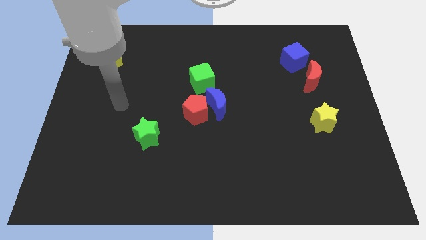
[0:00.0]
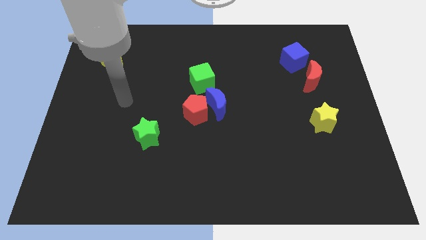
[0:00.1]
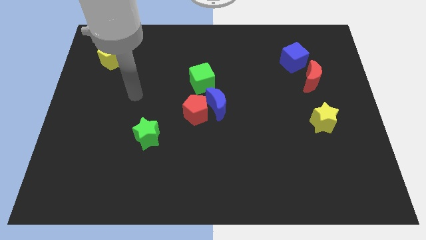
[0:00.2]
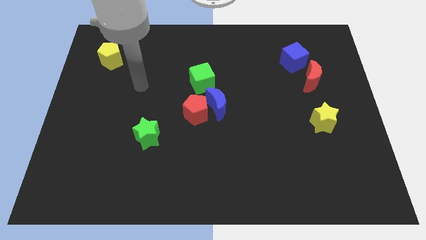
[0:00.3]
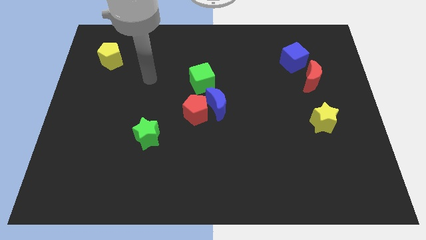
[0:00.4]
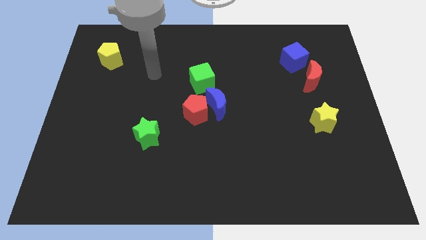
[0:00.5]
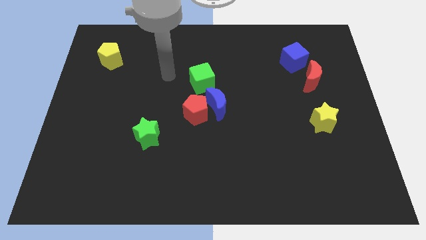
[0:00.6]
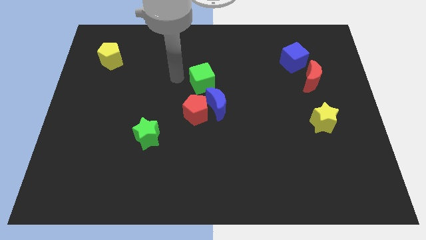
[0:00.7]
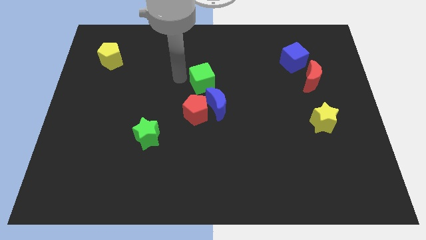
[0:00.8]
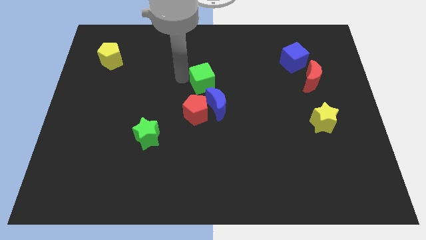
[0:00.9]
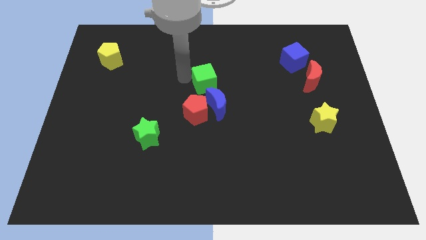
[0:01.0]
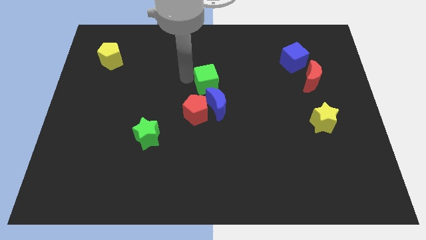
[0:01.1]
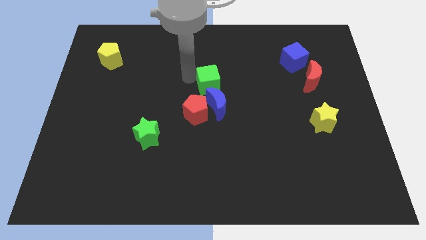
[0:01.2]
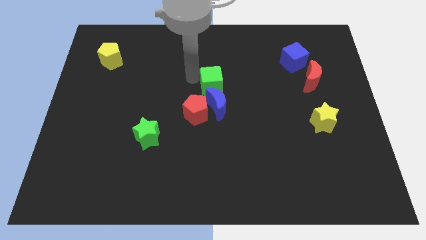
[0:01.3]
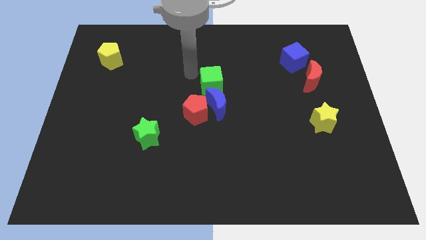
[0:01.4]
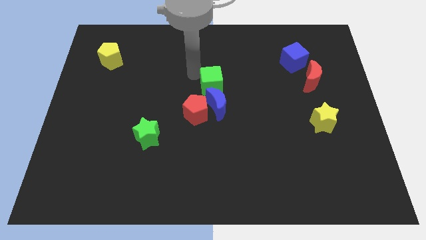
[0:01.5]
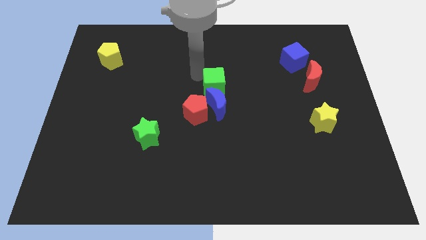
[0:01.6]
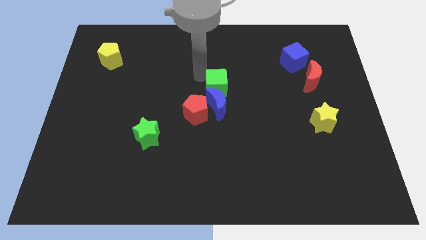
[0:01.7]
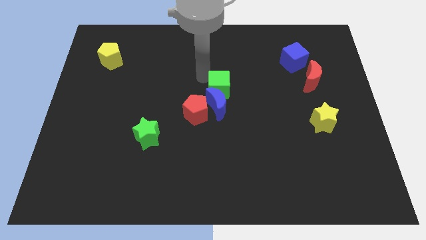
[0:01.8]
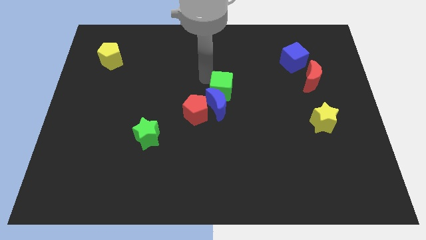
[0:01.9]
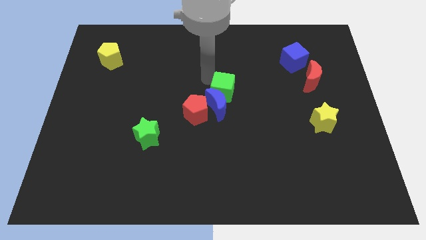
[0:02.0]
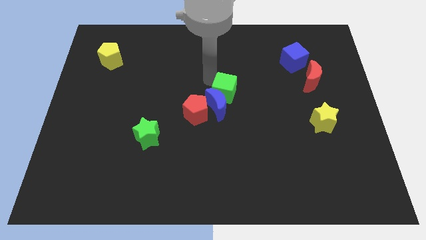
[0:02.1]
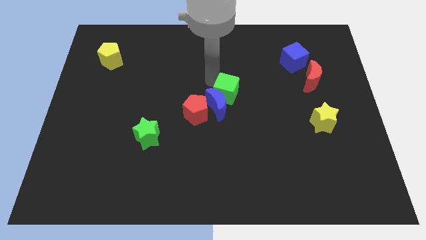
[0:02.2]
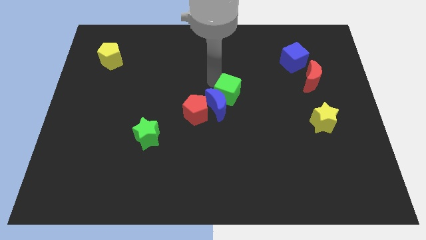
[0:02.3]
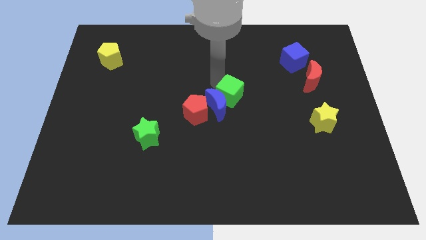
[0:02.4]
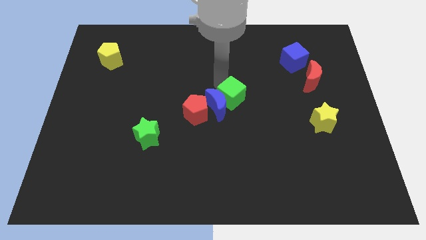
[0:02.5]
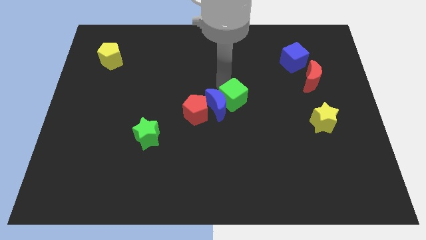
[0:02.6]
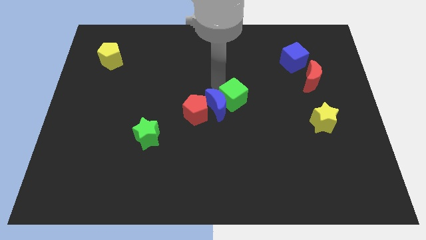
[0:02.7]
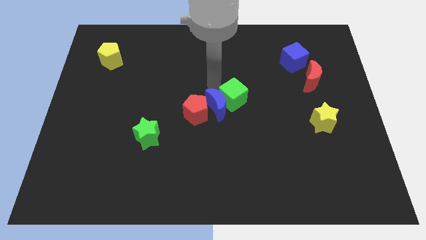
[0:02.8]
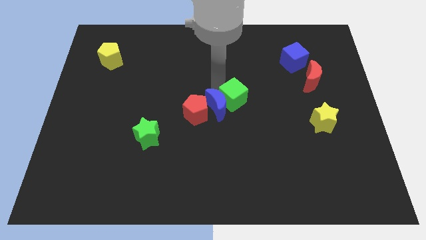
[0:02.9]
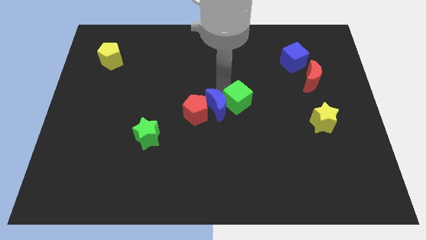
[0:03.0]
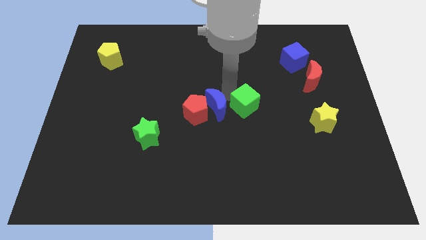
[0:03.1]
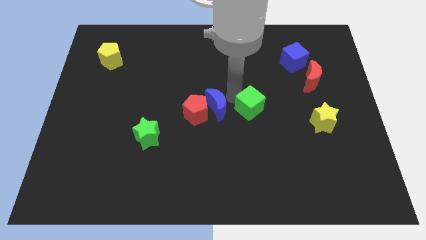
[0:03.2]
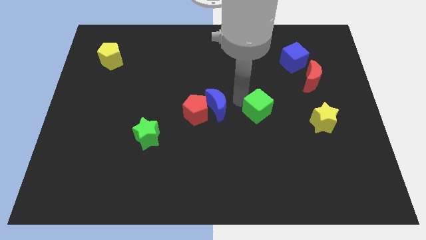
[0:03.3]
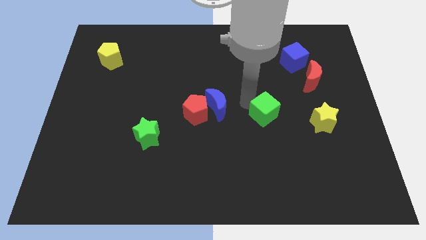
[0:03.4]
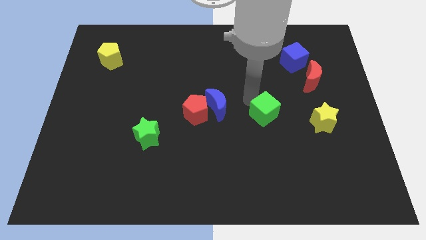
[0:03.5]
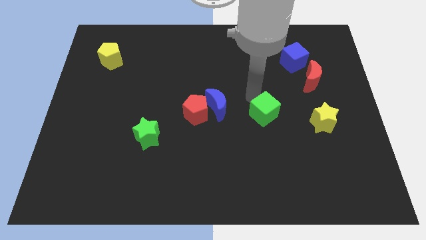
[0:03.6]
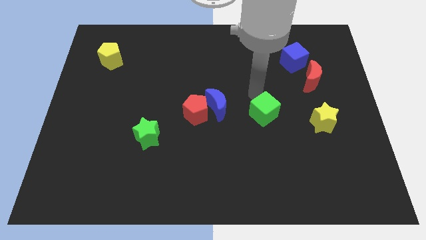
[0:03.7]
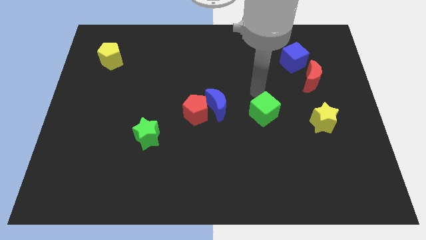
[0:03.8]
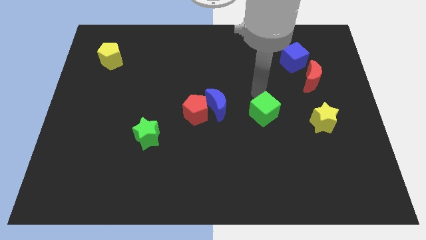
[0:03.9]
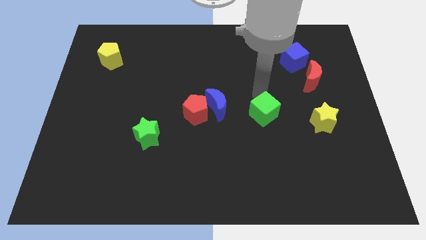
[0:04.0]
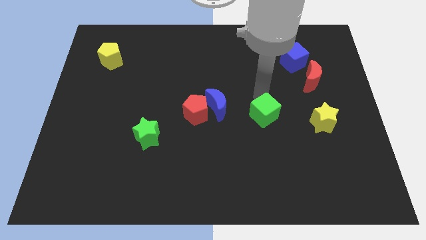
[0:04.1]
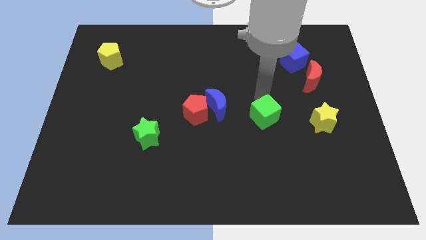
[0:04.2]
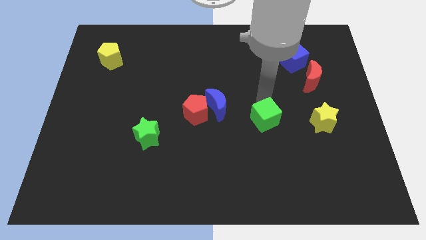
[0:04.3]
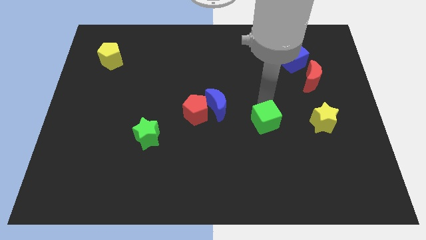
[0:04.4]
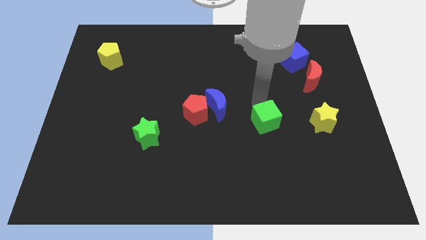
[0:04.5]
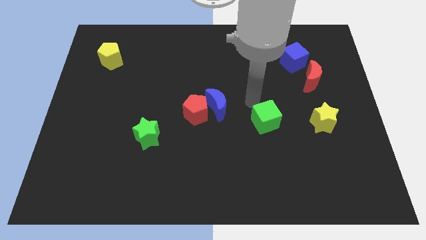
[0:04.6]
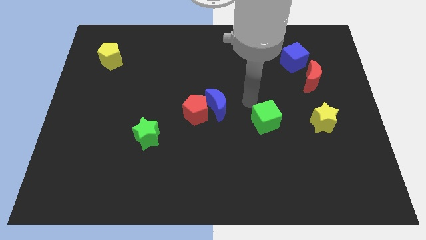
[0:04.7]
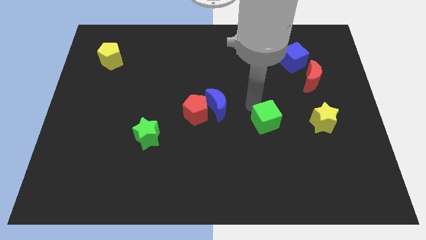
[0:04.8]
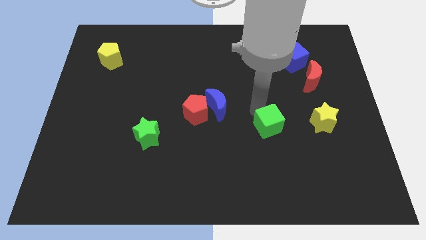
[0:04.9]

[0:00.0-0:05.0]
slide the green cube diagonally downwards and right

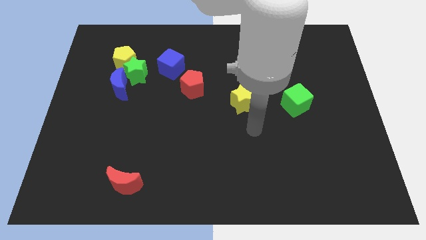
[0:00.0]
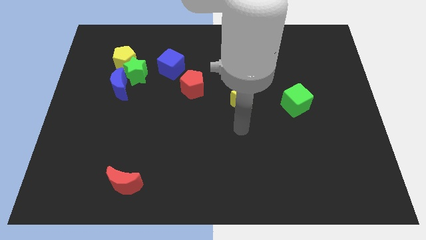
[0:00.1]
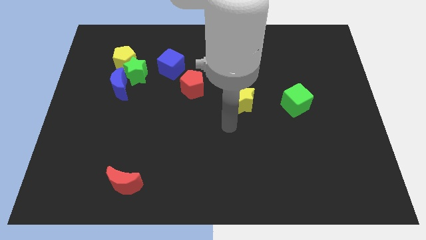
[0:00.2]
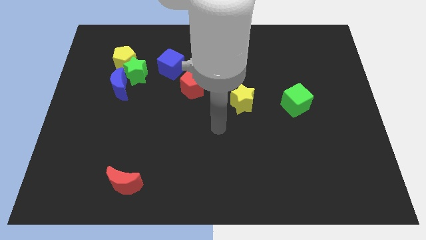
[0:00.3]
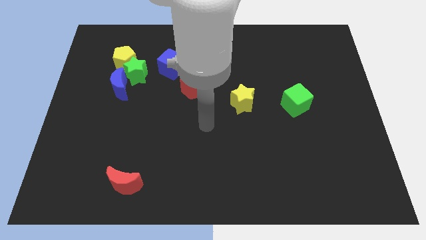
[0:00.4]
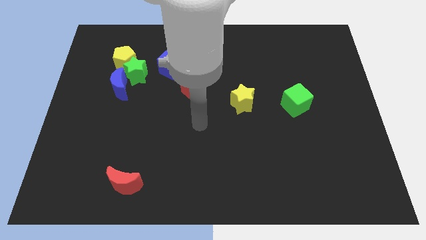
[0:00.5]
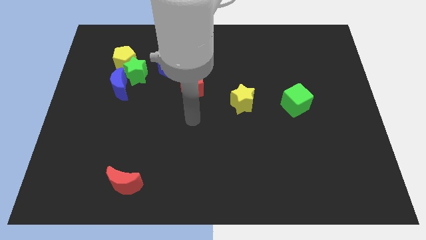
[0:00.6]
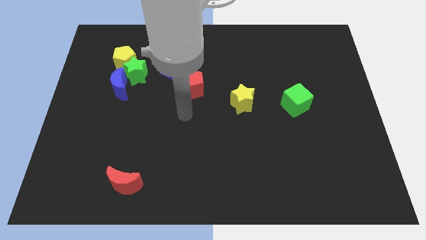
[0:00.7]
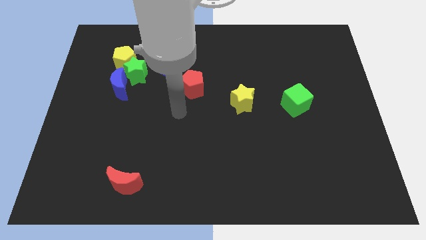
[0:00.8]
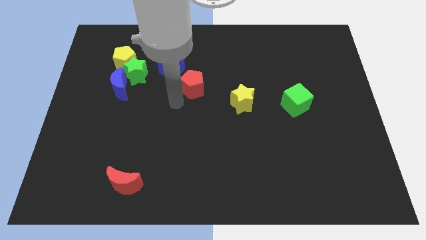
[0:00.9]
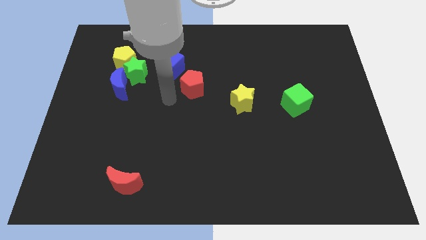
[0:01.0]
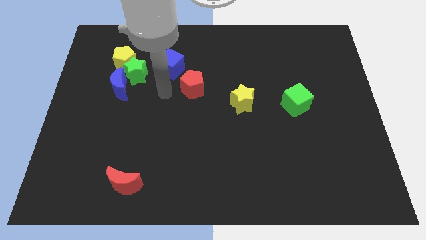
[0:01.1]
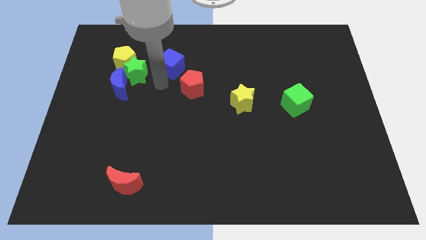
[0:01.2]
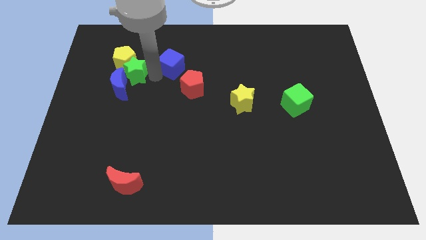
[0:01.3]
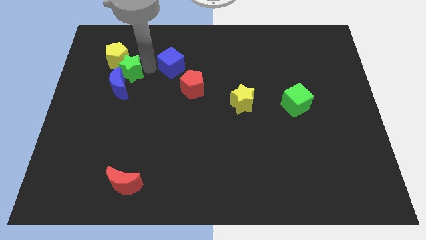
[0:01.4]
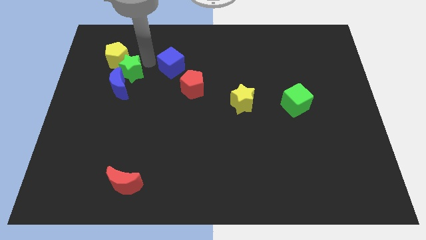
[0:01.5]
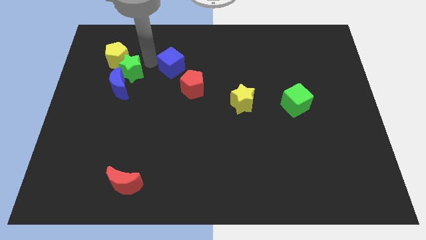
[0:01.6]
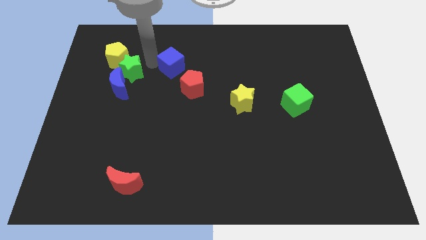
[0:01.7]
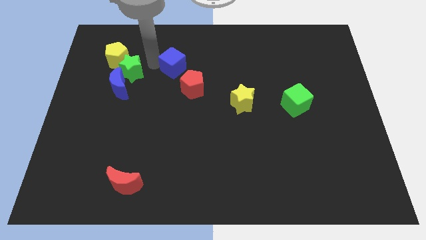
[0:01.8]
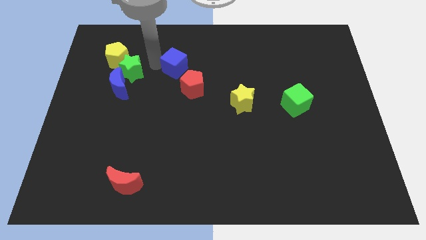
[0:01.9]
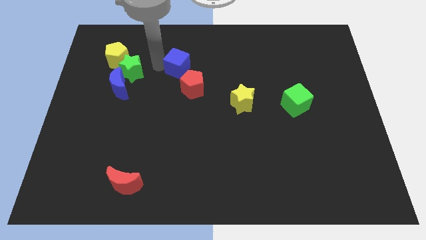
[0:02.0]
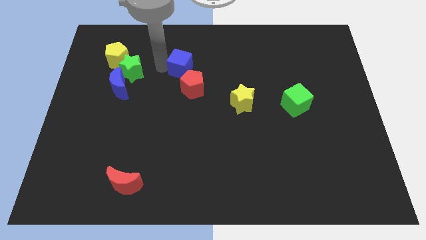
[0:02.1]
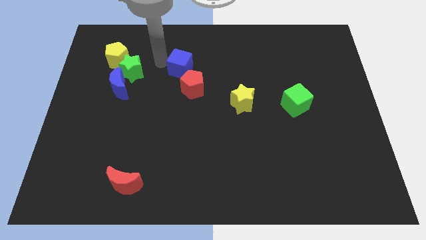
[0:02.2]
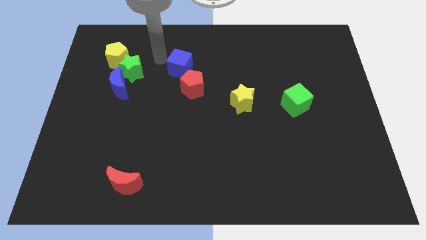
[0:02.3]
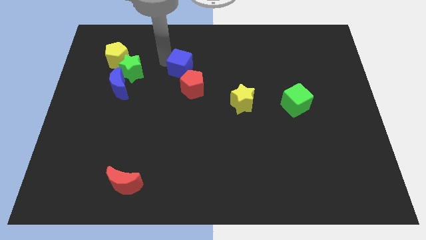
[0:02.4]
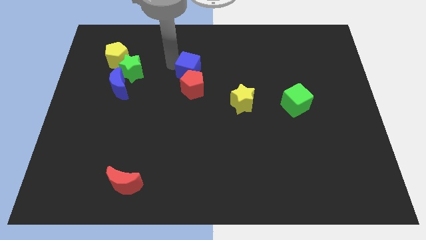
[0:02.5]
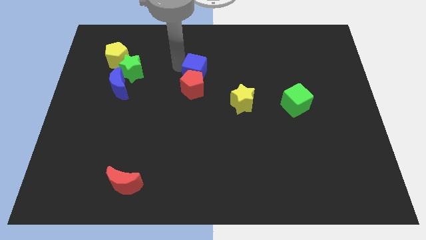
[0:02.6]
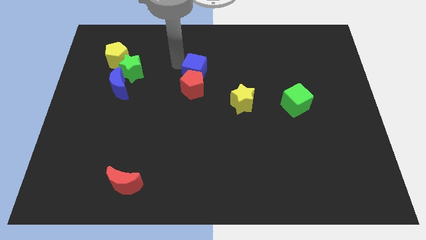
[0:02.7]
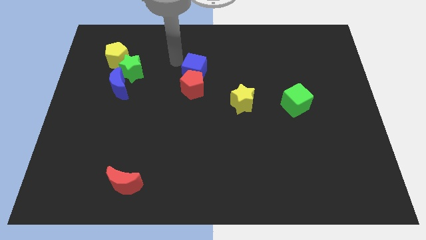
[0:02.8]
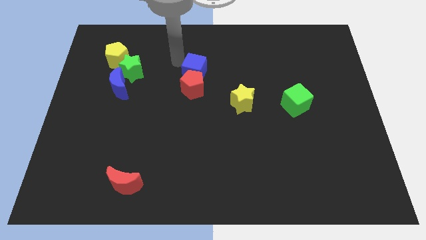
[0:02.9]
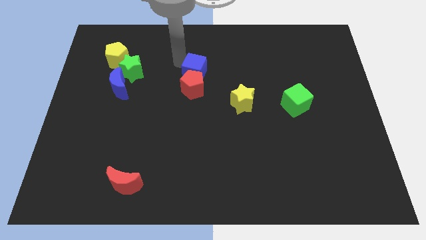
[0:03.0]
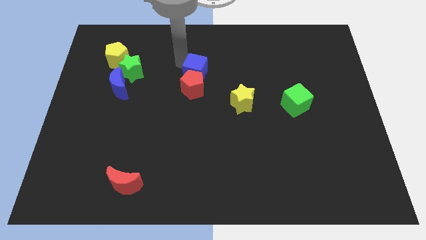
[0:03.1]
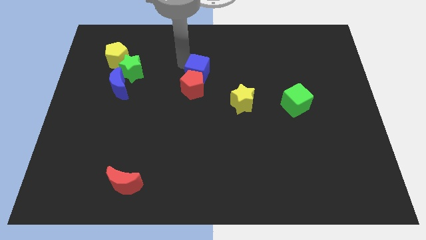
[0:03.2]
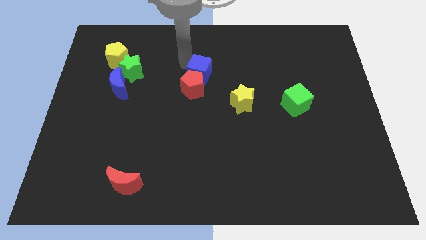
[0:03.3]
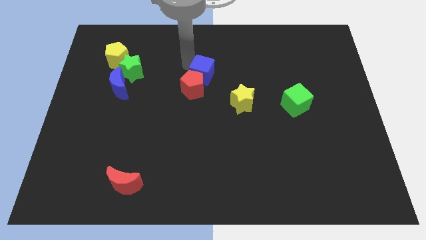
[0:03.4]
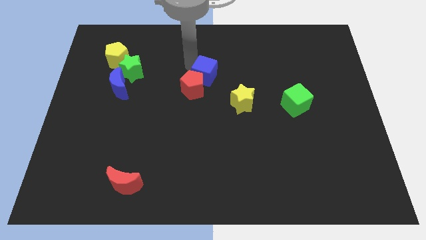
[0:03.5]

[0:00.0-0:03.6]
slightly push the blue cube down and to the right diagonally
